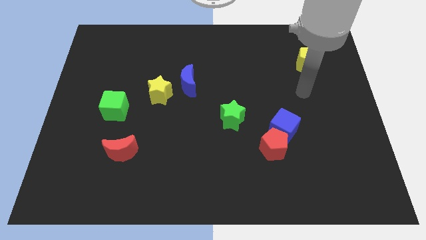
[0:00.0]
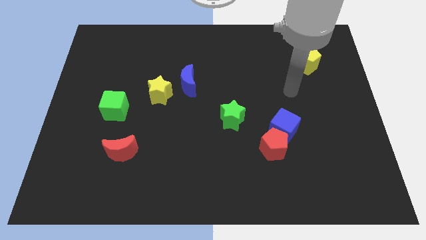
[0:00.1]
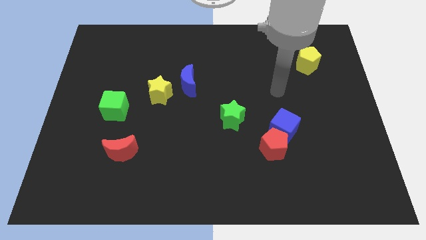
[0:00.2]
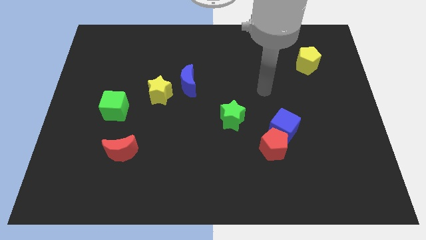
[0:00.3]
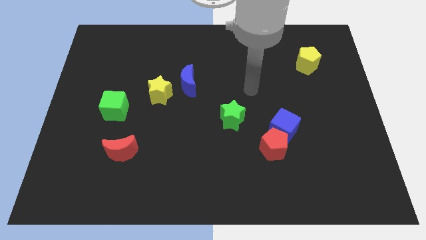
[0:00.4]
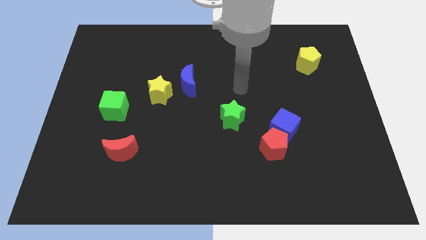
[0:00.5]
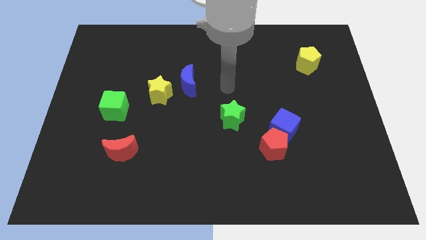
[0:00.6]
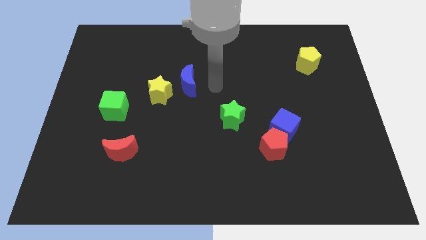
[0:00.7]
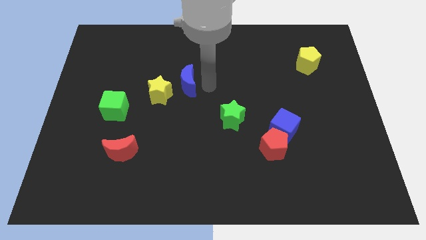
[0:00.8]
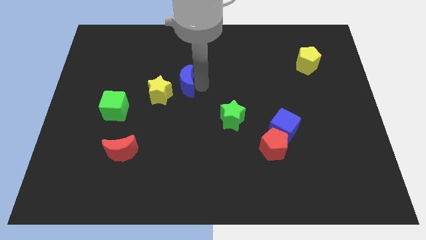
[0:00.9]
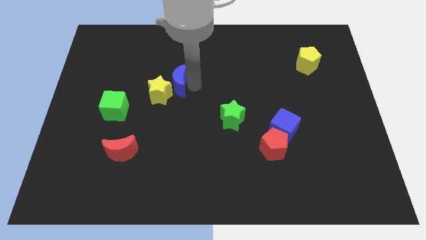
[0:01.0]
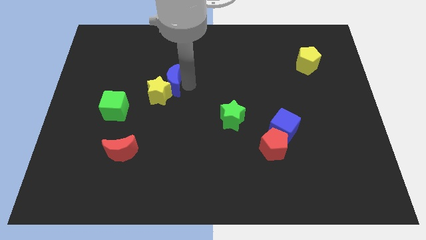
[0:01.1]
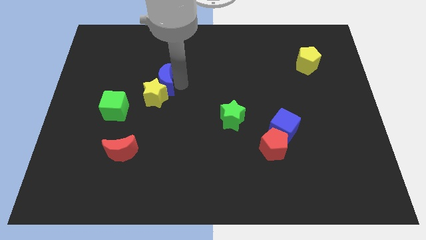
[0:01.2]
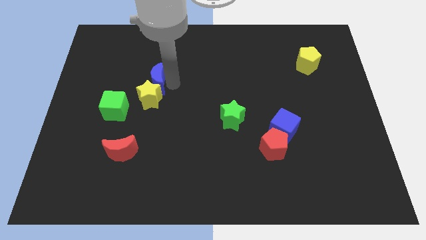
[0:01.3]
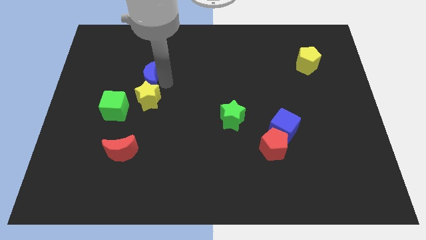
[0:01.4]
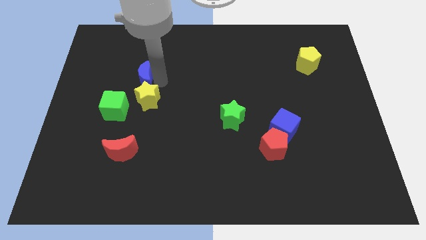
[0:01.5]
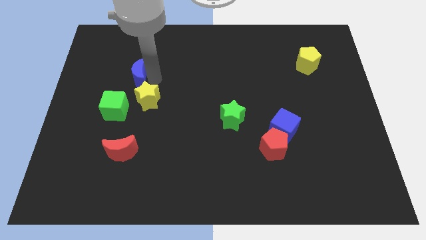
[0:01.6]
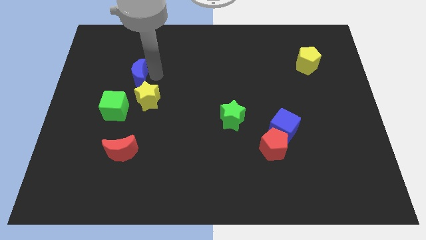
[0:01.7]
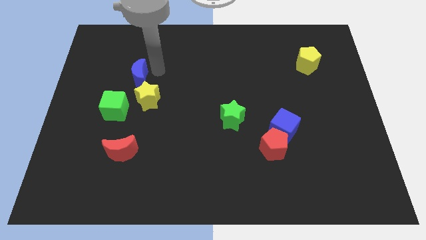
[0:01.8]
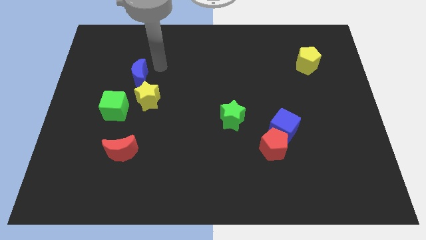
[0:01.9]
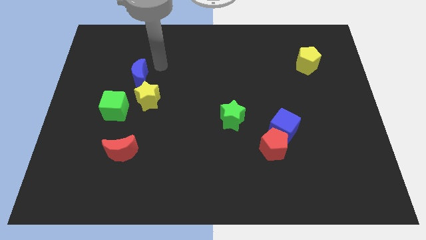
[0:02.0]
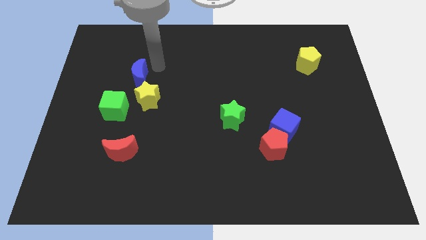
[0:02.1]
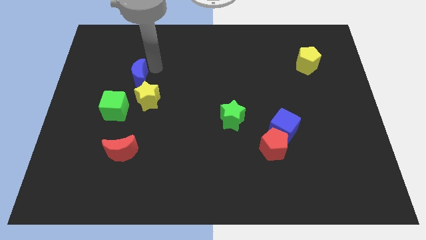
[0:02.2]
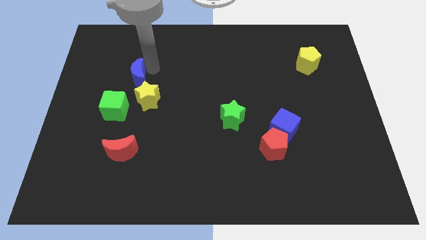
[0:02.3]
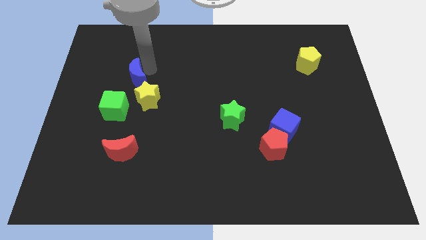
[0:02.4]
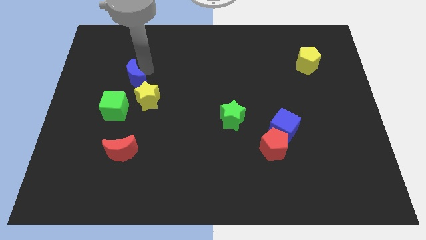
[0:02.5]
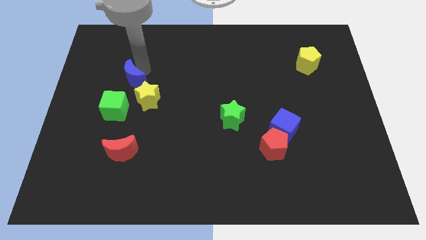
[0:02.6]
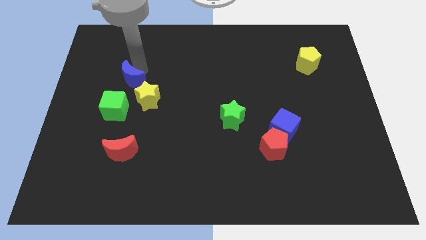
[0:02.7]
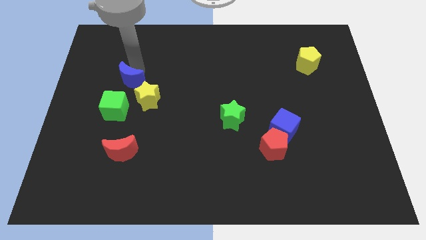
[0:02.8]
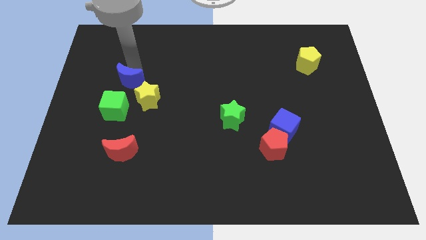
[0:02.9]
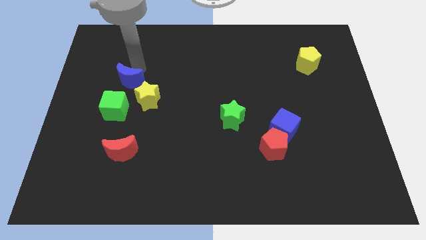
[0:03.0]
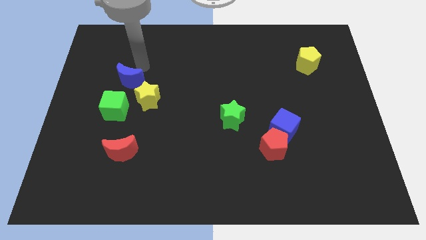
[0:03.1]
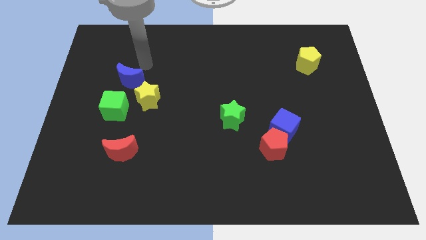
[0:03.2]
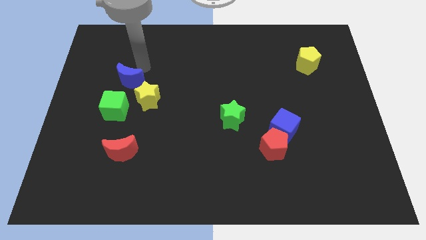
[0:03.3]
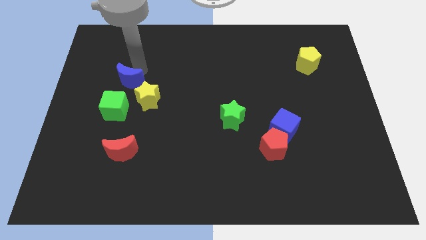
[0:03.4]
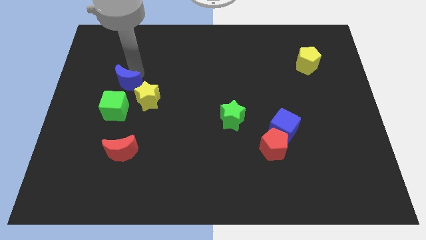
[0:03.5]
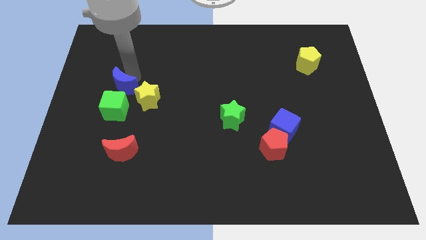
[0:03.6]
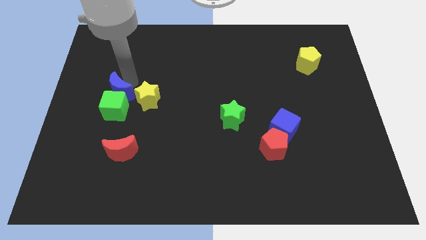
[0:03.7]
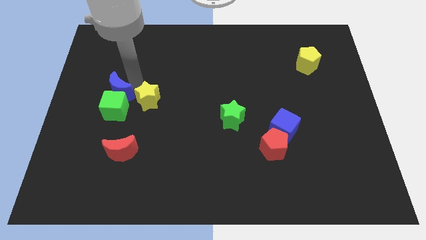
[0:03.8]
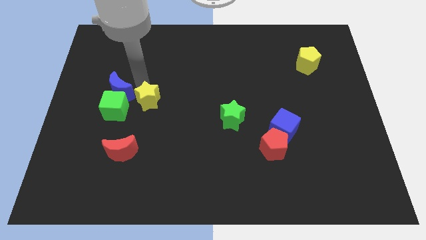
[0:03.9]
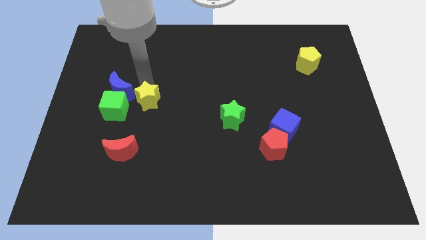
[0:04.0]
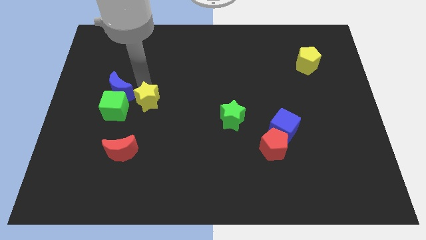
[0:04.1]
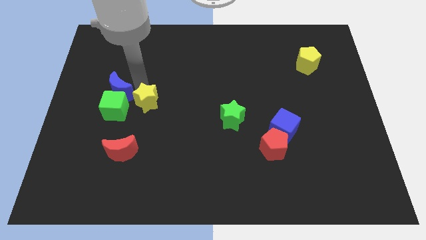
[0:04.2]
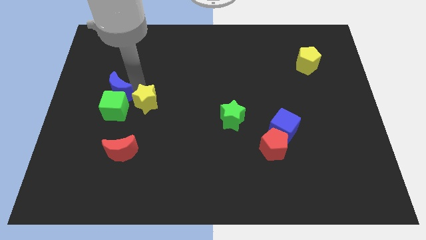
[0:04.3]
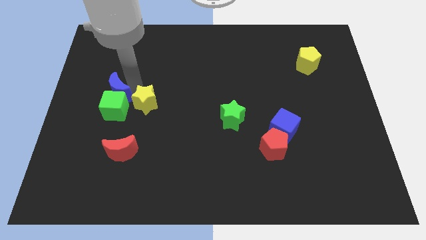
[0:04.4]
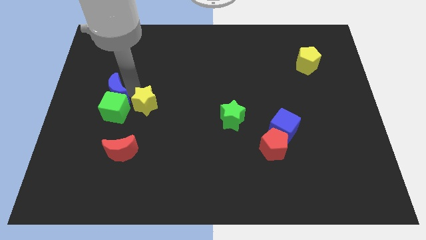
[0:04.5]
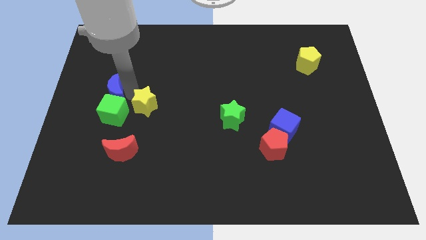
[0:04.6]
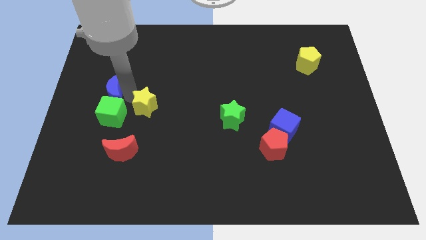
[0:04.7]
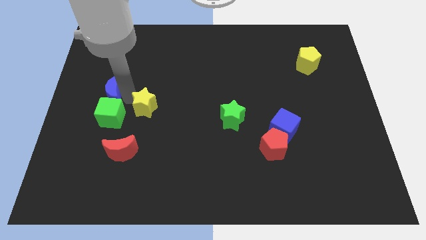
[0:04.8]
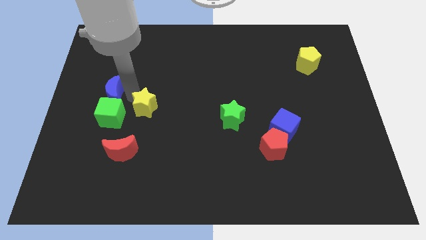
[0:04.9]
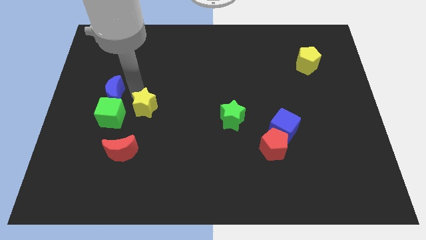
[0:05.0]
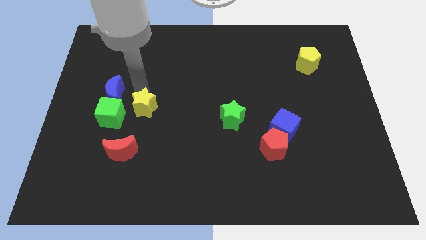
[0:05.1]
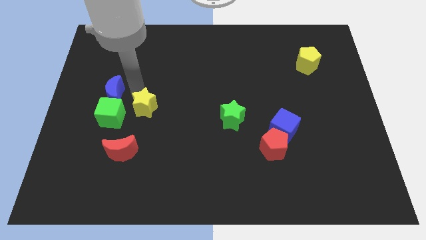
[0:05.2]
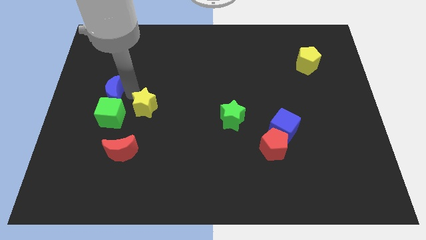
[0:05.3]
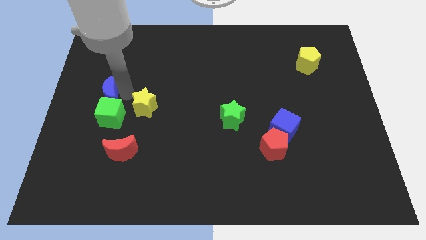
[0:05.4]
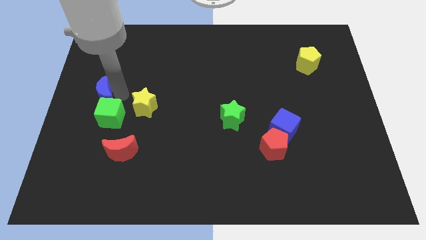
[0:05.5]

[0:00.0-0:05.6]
put the blue moon to the left side of the board

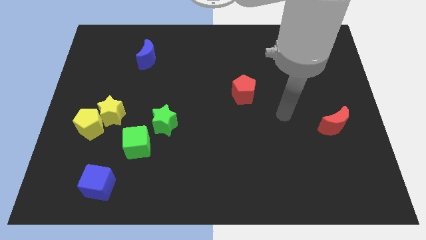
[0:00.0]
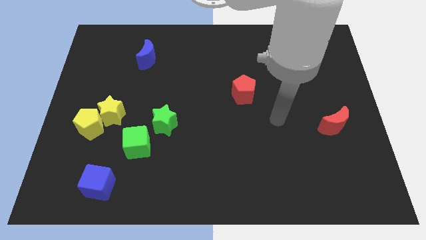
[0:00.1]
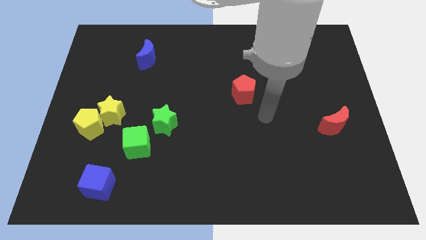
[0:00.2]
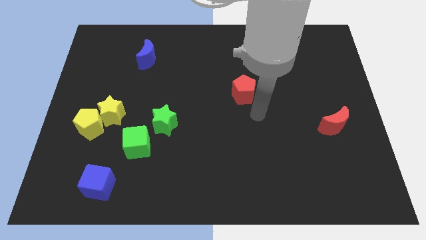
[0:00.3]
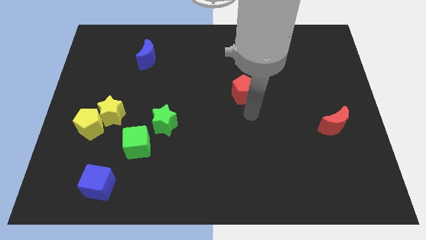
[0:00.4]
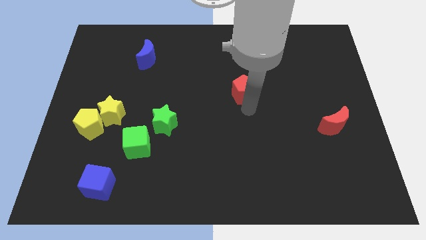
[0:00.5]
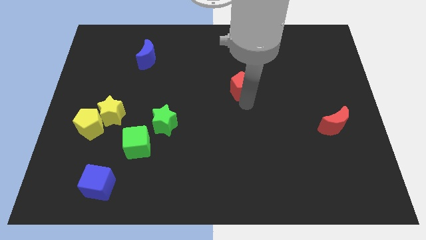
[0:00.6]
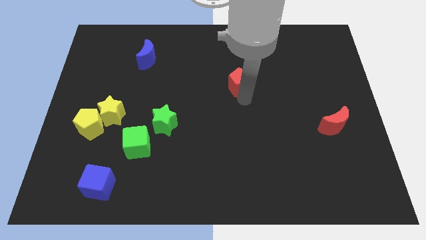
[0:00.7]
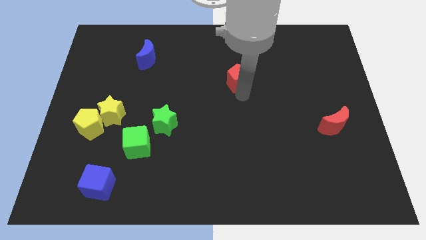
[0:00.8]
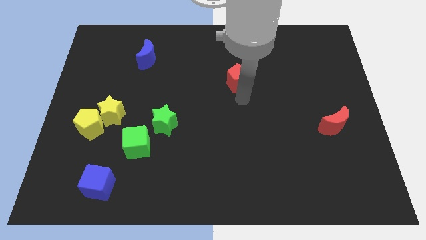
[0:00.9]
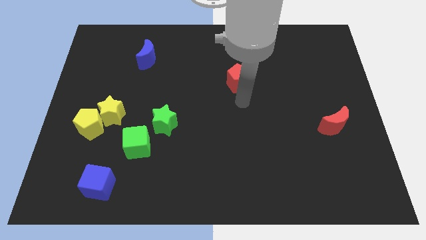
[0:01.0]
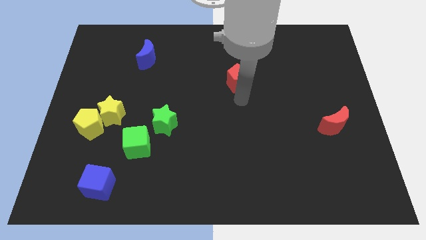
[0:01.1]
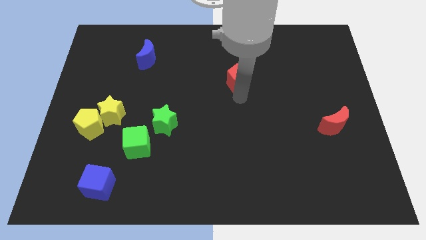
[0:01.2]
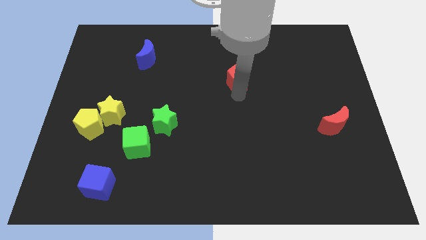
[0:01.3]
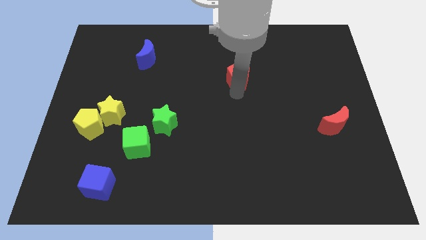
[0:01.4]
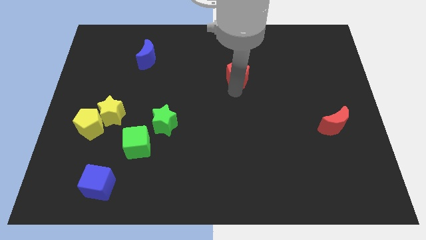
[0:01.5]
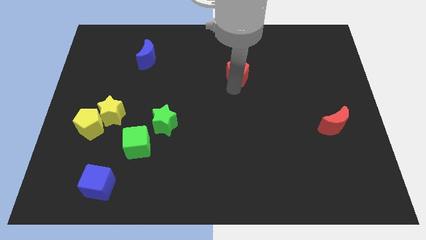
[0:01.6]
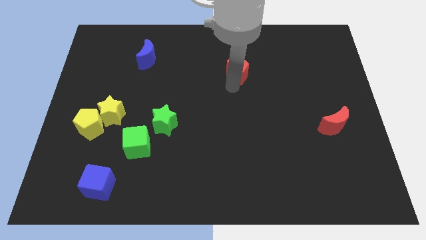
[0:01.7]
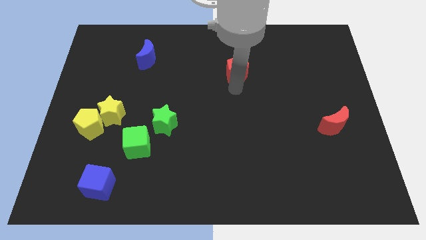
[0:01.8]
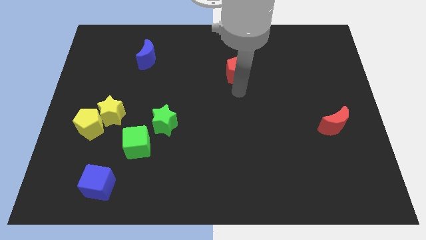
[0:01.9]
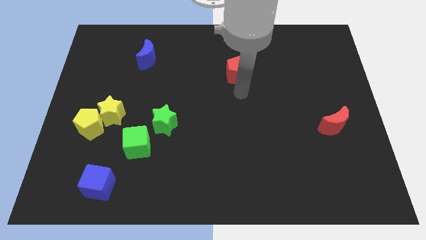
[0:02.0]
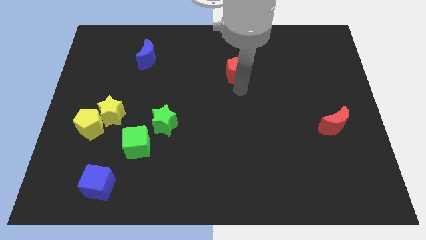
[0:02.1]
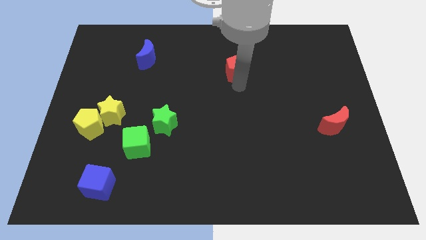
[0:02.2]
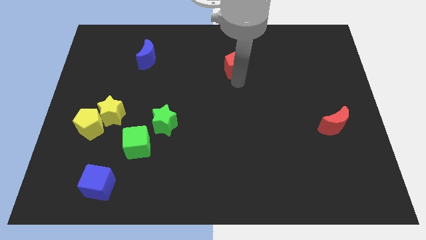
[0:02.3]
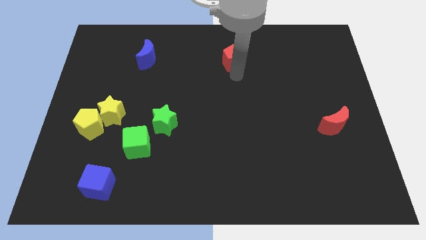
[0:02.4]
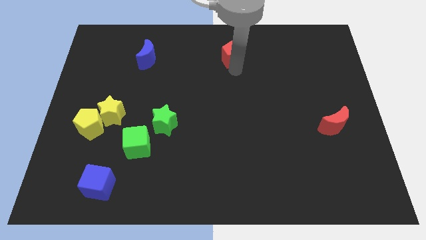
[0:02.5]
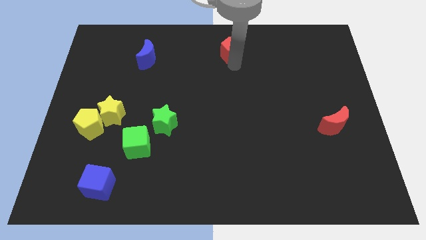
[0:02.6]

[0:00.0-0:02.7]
move the red pentagon to the top side
